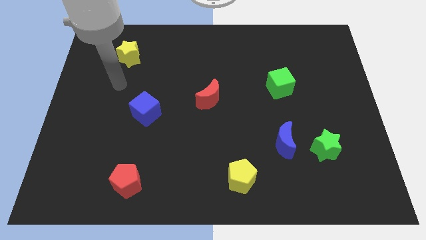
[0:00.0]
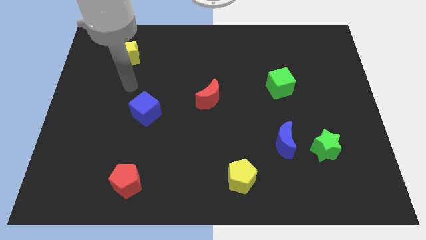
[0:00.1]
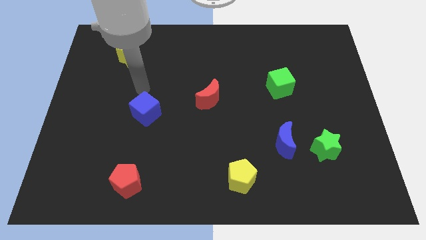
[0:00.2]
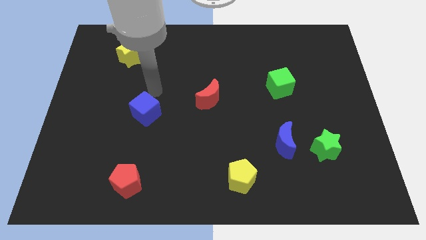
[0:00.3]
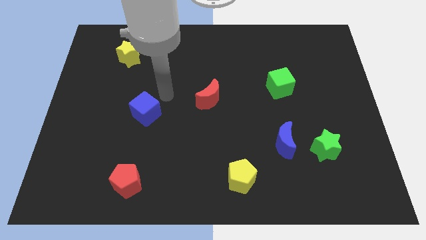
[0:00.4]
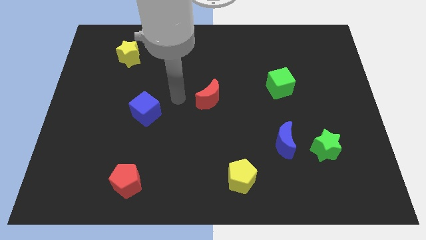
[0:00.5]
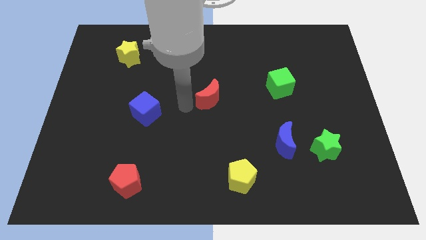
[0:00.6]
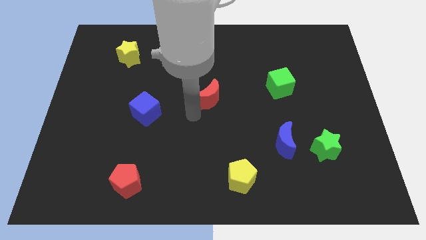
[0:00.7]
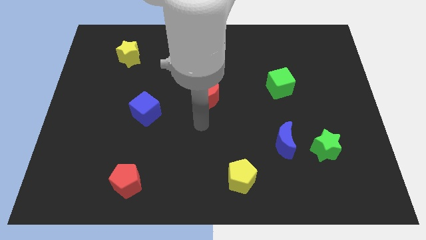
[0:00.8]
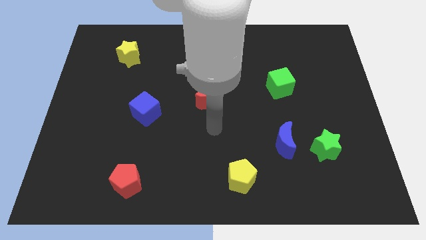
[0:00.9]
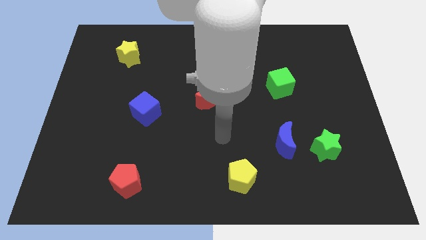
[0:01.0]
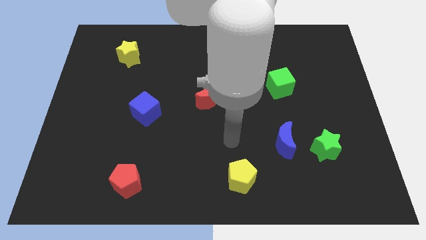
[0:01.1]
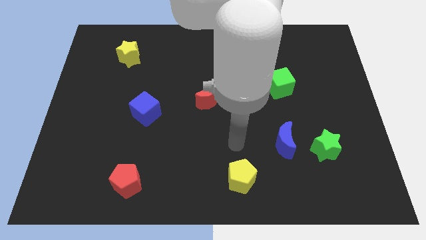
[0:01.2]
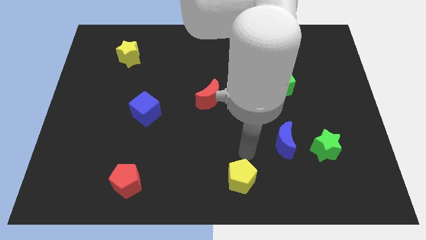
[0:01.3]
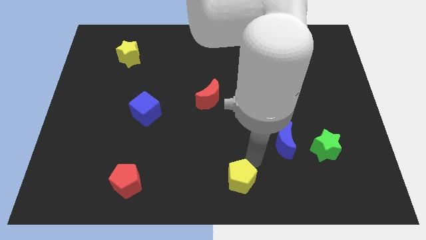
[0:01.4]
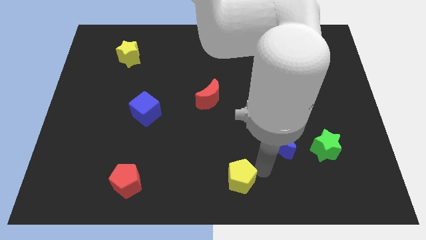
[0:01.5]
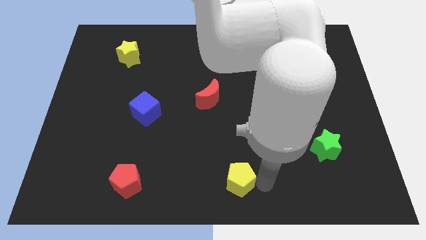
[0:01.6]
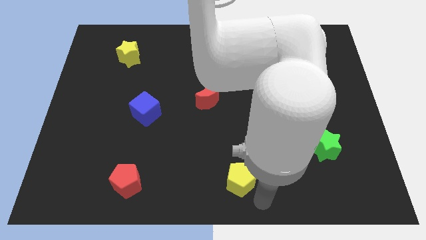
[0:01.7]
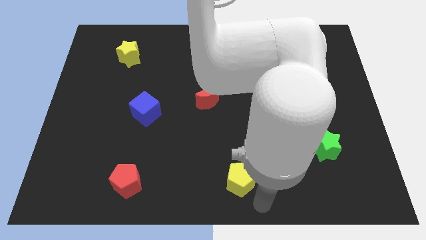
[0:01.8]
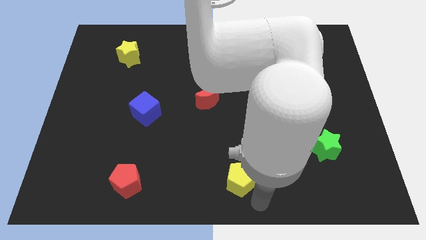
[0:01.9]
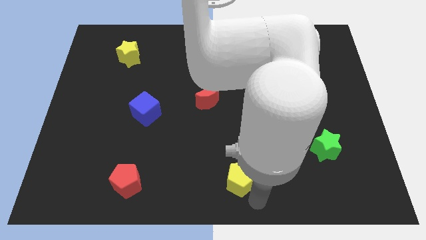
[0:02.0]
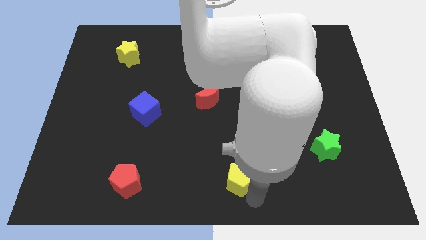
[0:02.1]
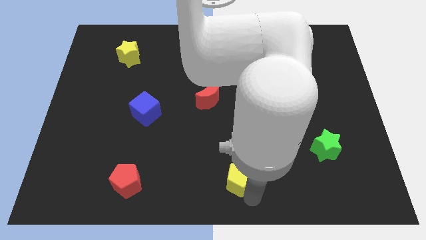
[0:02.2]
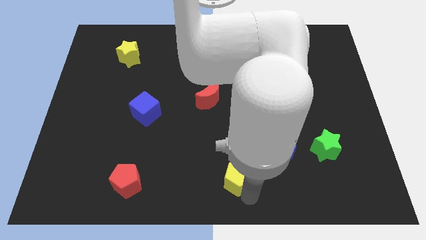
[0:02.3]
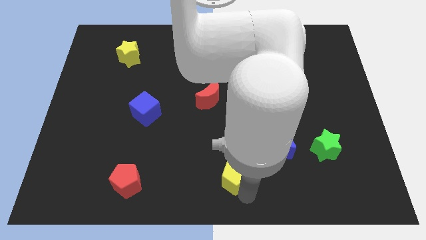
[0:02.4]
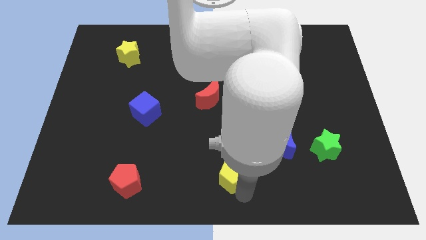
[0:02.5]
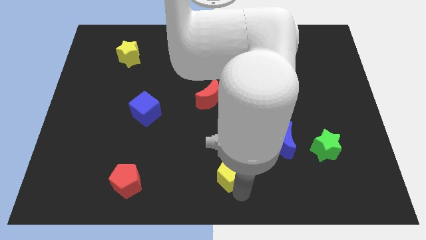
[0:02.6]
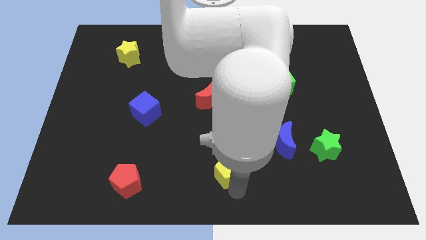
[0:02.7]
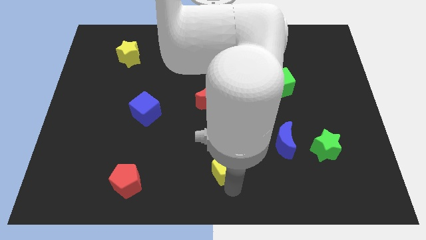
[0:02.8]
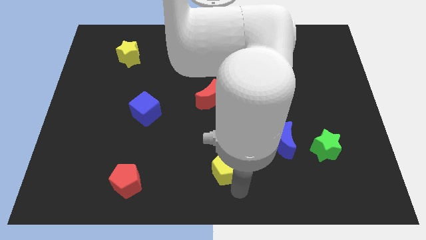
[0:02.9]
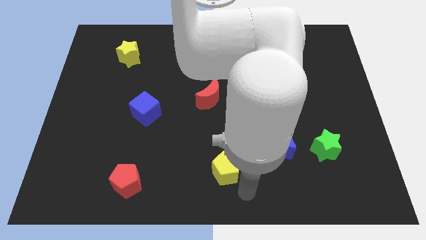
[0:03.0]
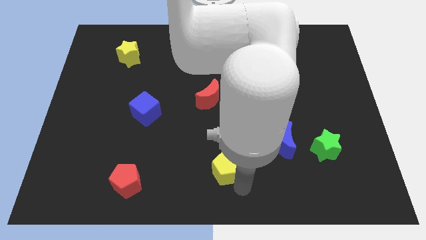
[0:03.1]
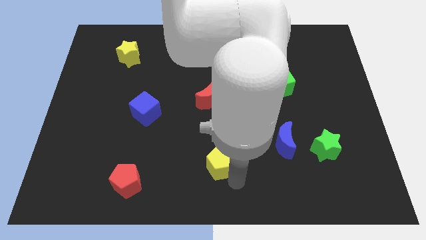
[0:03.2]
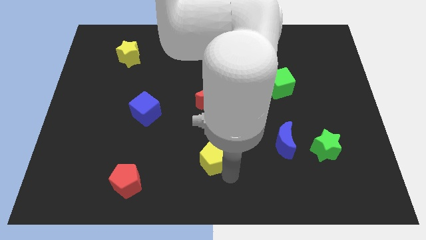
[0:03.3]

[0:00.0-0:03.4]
push the yellow pentagon slightly diagonally up and to the left

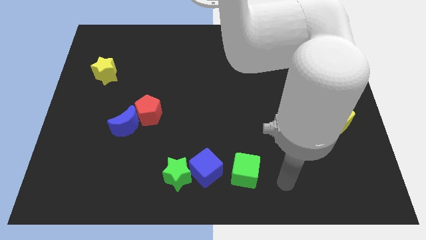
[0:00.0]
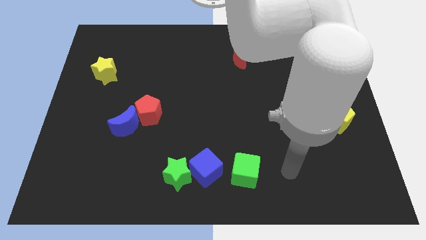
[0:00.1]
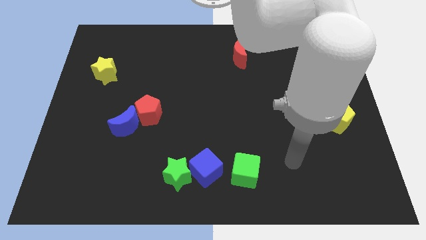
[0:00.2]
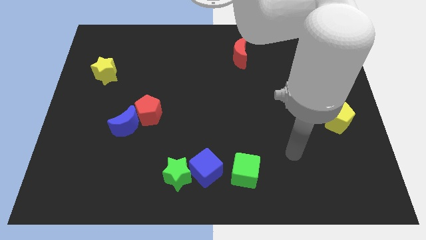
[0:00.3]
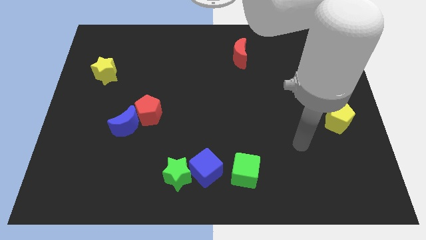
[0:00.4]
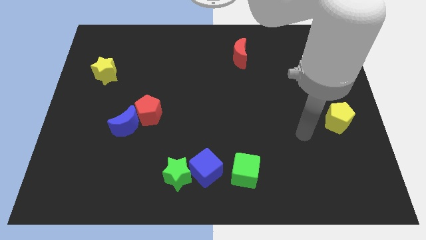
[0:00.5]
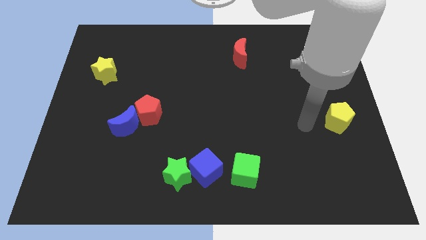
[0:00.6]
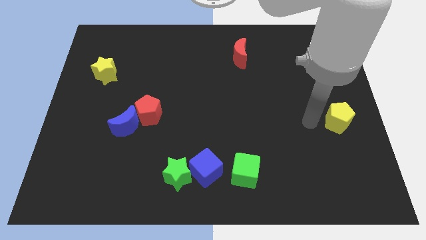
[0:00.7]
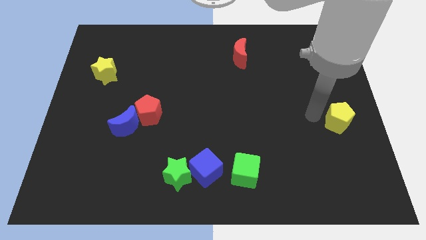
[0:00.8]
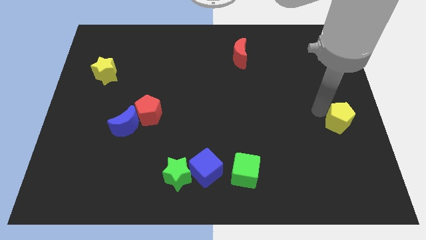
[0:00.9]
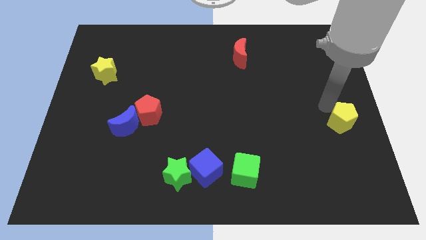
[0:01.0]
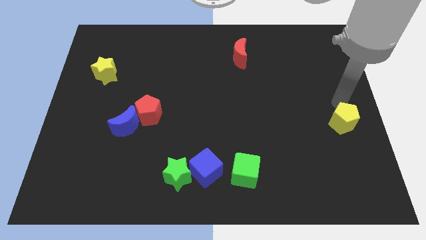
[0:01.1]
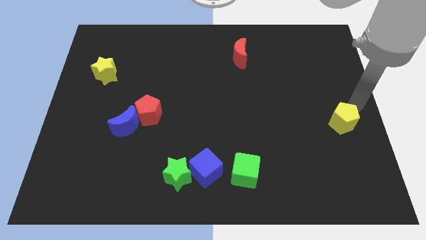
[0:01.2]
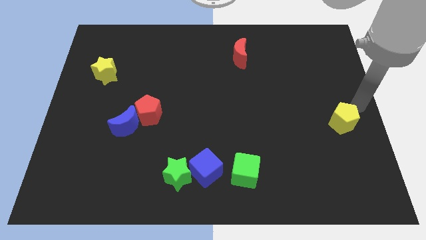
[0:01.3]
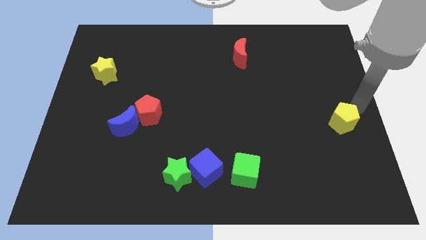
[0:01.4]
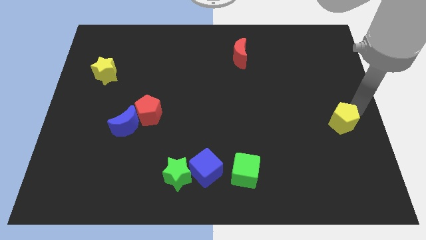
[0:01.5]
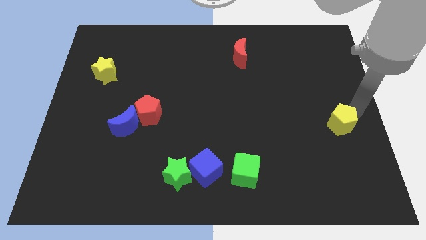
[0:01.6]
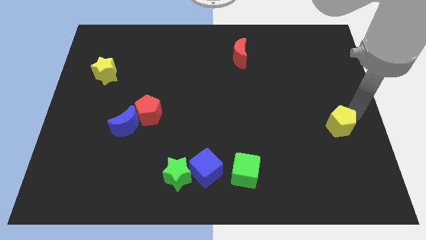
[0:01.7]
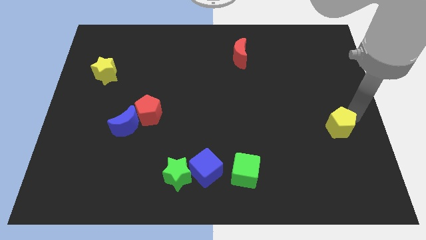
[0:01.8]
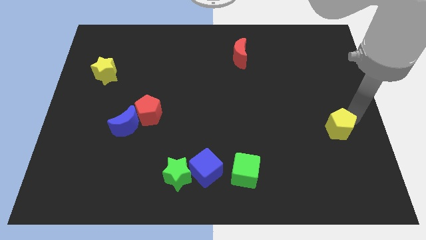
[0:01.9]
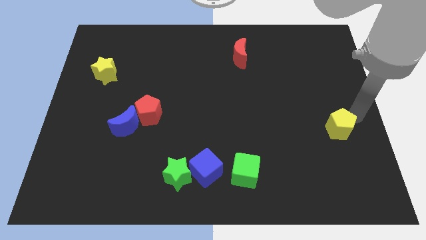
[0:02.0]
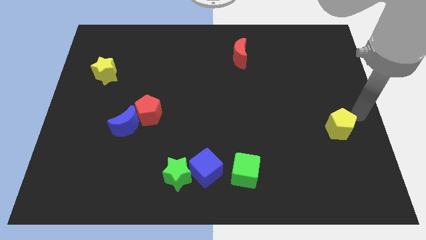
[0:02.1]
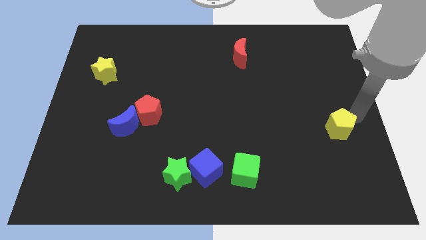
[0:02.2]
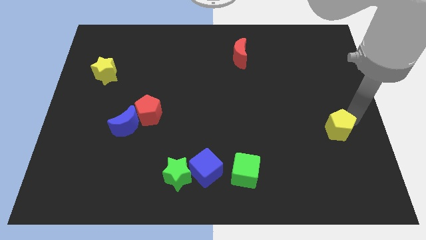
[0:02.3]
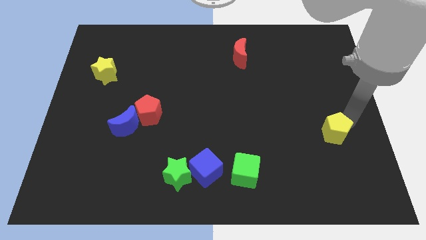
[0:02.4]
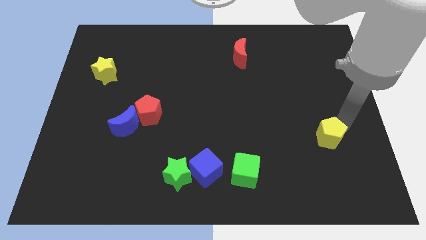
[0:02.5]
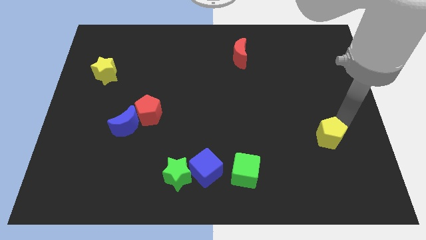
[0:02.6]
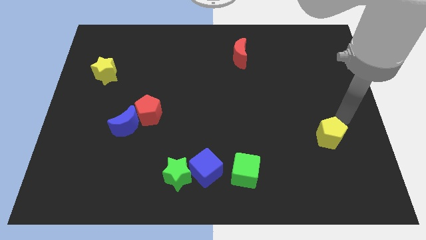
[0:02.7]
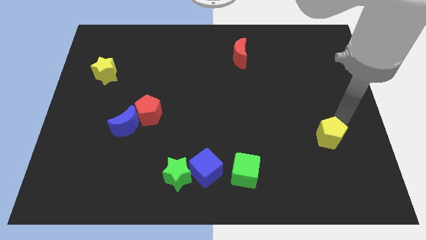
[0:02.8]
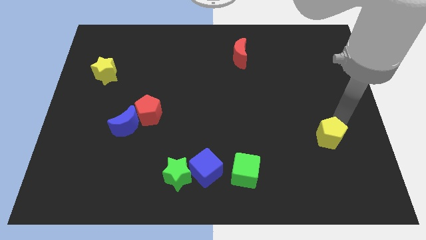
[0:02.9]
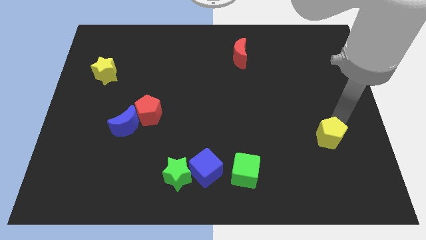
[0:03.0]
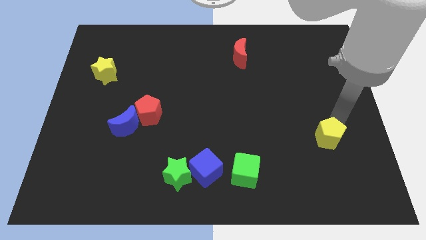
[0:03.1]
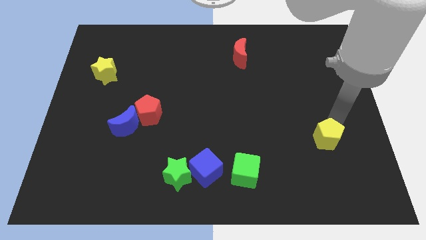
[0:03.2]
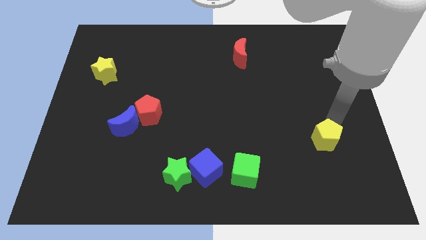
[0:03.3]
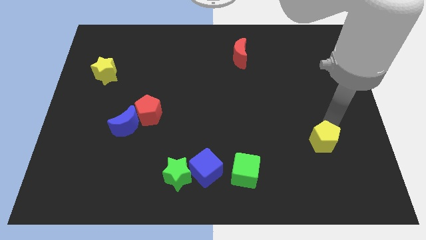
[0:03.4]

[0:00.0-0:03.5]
slide the yellow pentagon diagonally downwards and left a bit

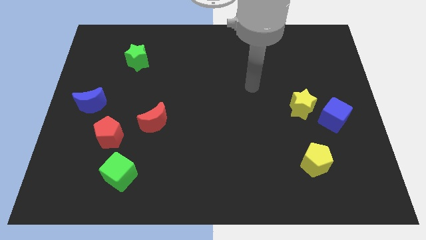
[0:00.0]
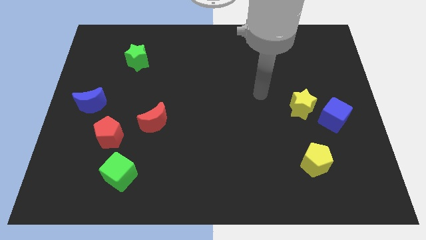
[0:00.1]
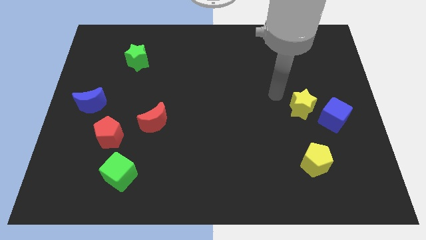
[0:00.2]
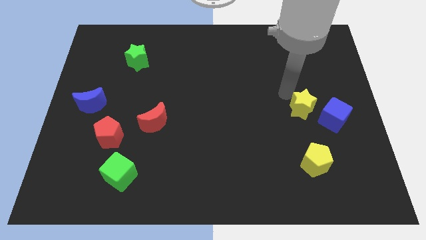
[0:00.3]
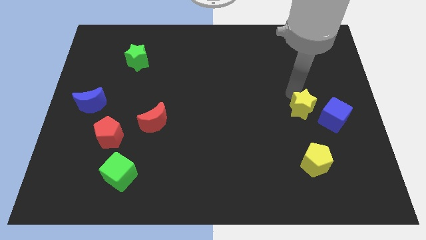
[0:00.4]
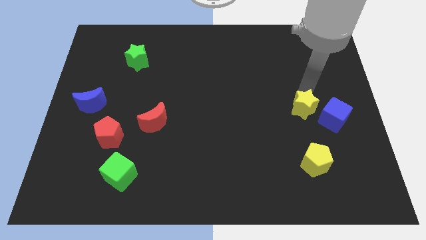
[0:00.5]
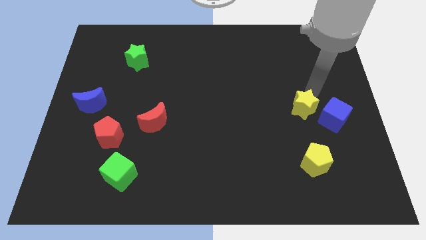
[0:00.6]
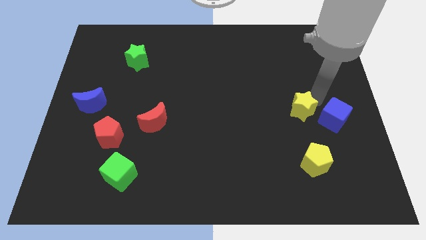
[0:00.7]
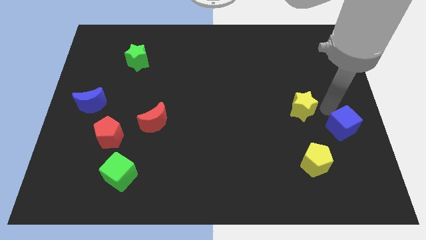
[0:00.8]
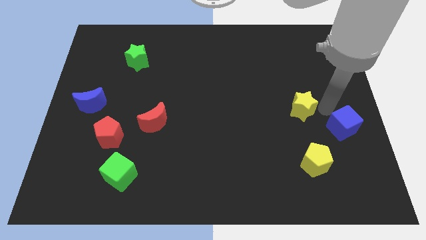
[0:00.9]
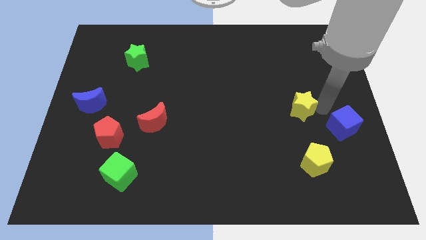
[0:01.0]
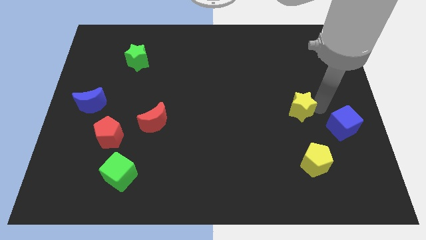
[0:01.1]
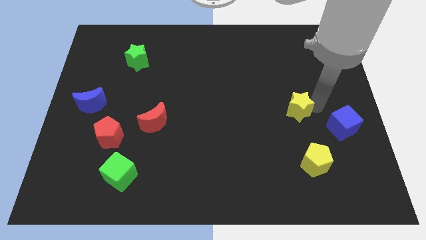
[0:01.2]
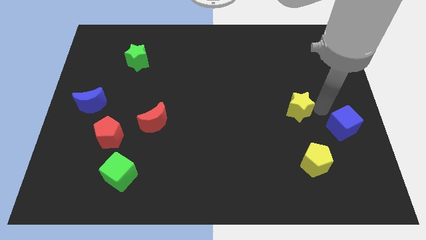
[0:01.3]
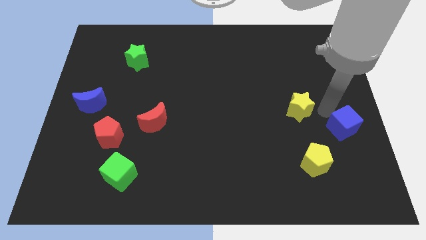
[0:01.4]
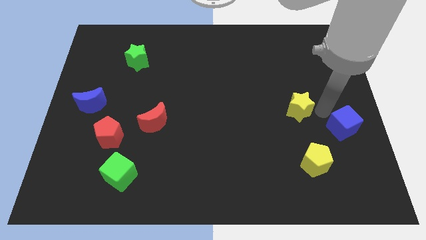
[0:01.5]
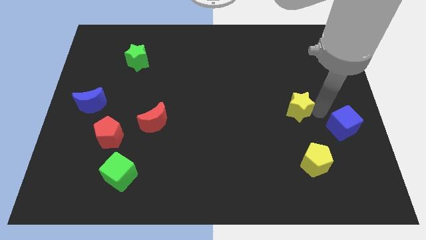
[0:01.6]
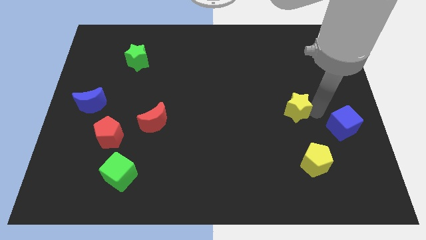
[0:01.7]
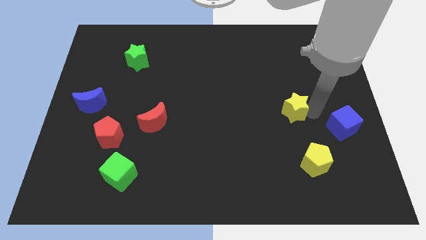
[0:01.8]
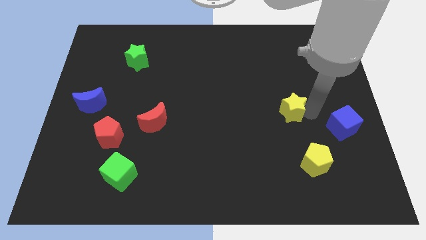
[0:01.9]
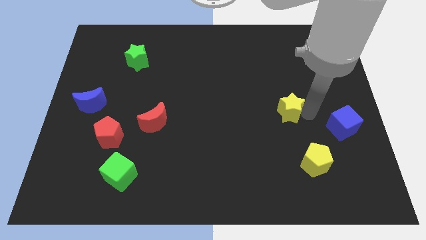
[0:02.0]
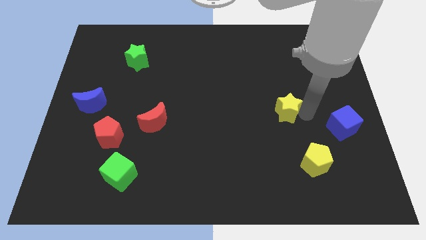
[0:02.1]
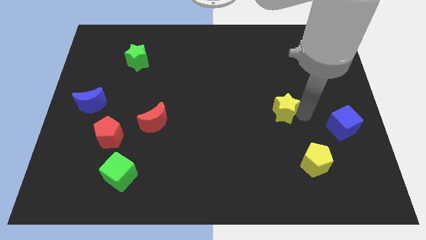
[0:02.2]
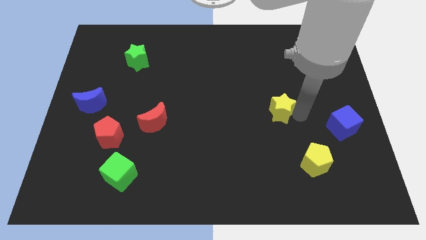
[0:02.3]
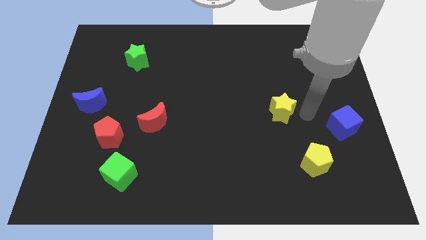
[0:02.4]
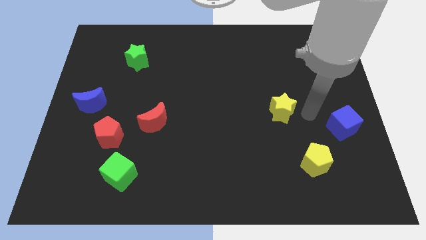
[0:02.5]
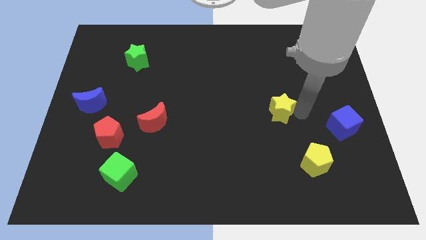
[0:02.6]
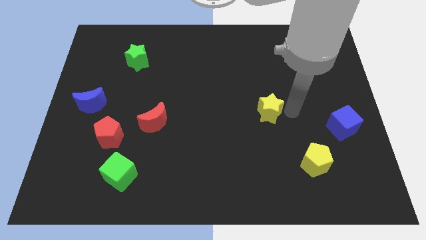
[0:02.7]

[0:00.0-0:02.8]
move the yellow star to the left slightly
